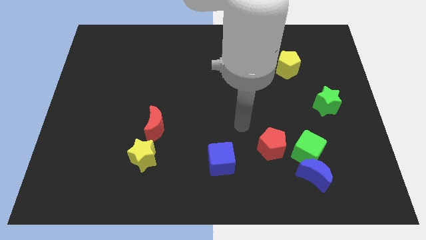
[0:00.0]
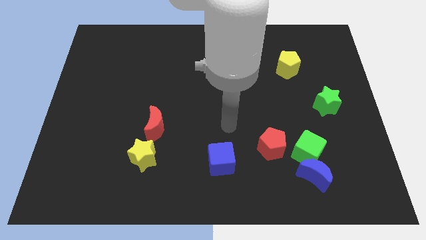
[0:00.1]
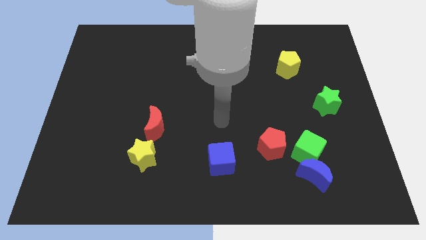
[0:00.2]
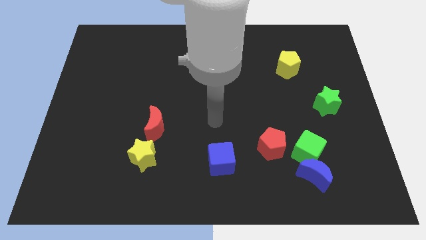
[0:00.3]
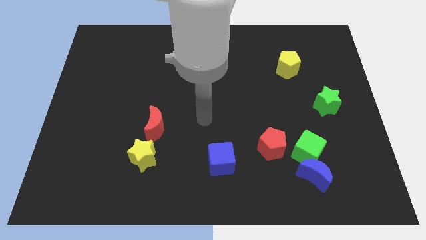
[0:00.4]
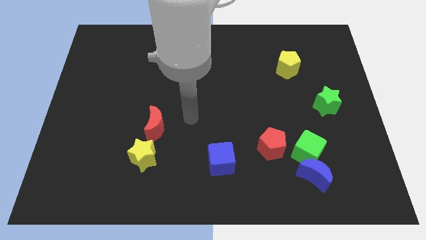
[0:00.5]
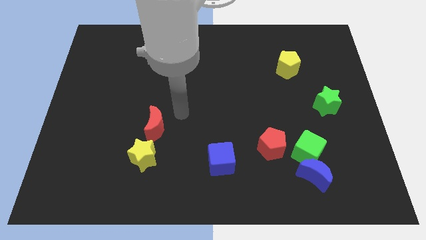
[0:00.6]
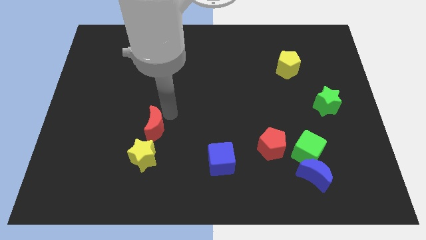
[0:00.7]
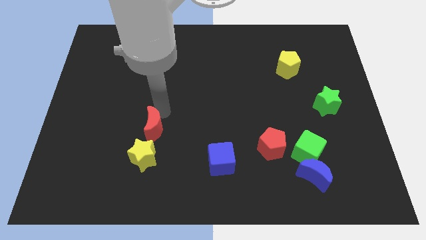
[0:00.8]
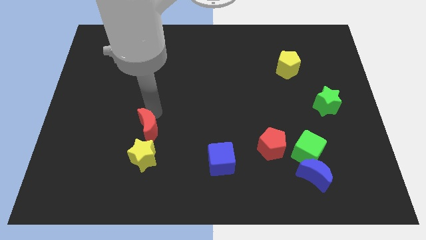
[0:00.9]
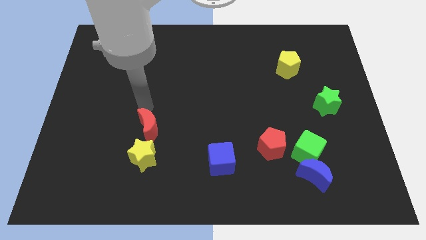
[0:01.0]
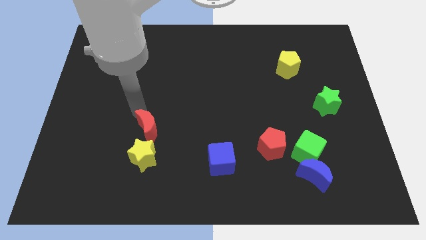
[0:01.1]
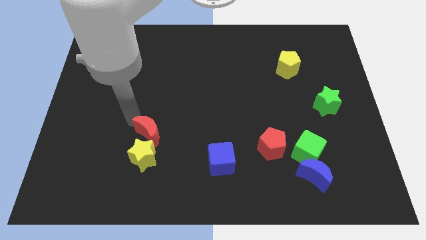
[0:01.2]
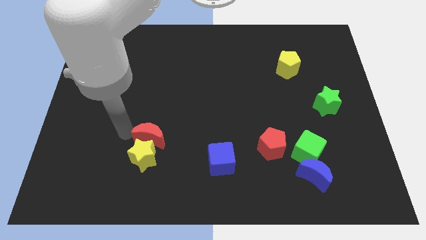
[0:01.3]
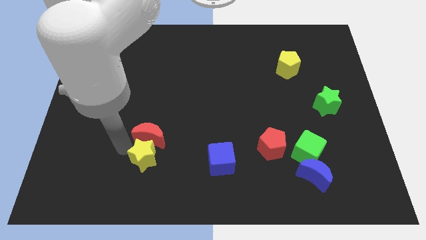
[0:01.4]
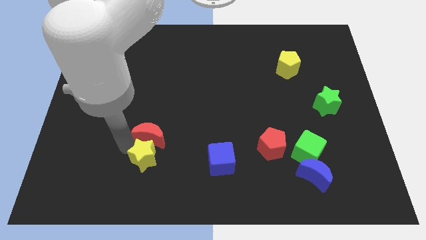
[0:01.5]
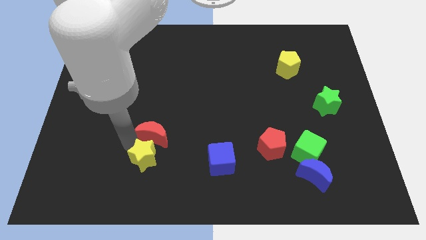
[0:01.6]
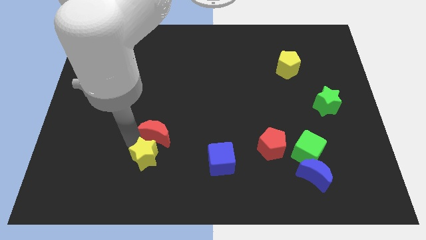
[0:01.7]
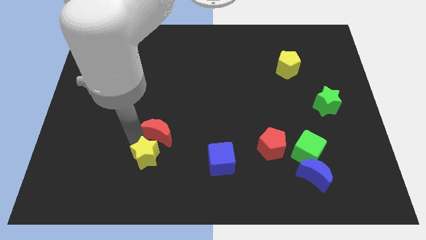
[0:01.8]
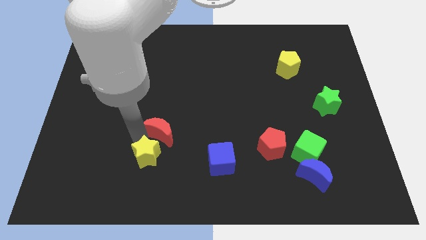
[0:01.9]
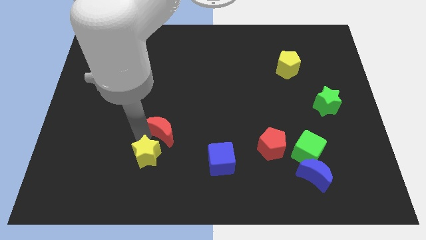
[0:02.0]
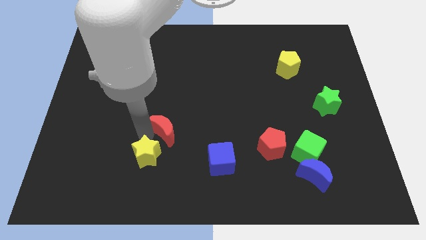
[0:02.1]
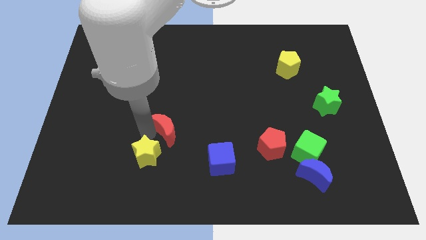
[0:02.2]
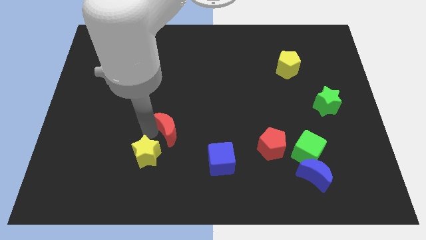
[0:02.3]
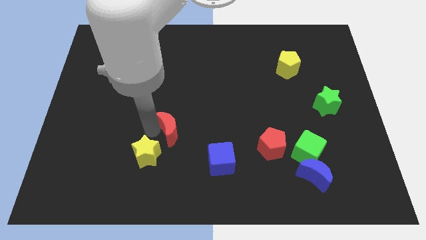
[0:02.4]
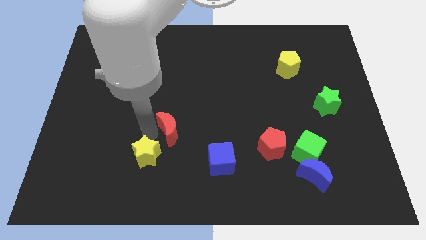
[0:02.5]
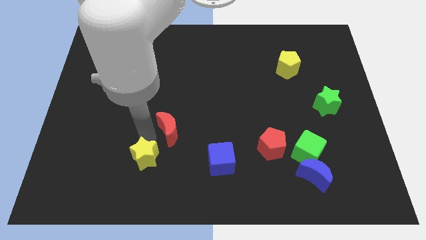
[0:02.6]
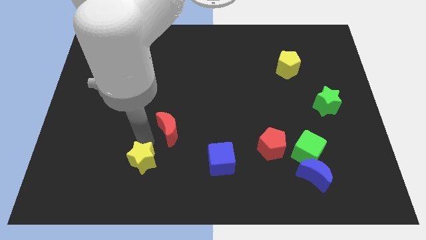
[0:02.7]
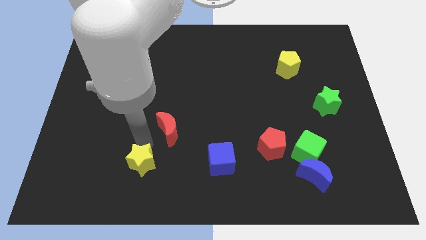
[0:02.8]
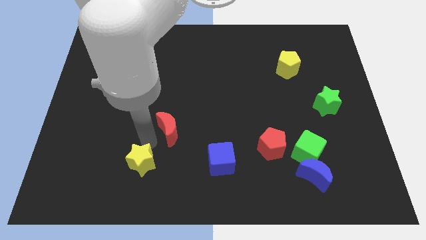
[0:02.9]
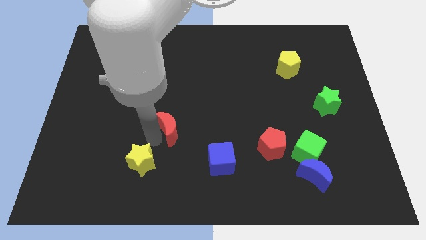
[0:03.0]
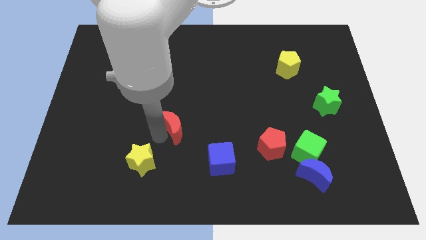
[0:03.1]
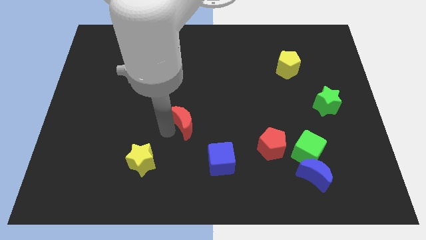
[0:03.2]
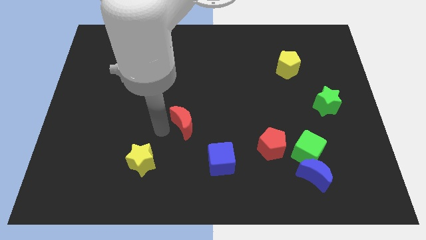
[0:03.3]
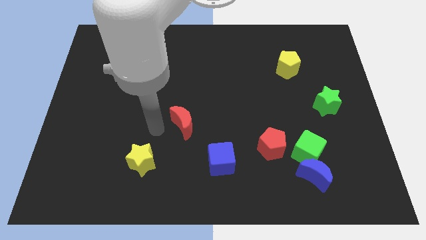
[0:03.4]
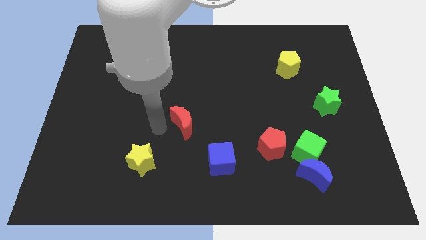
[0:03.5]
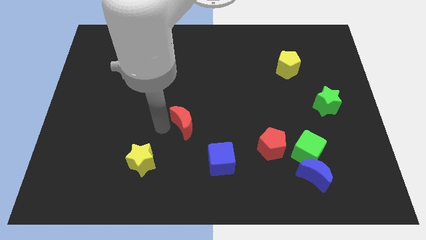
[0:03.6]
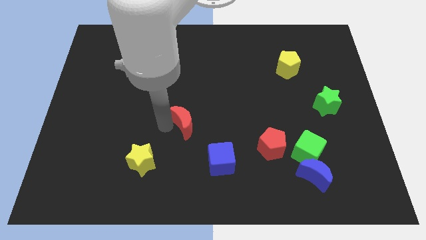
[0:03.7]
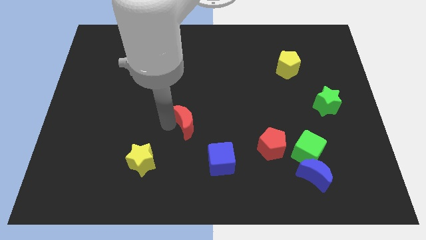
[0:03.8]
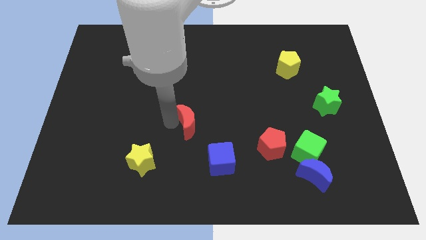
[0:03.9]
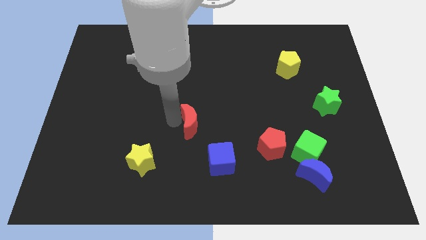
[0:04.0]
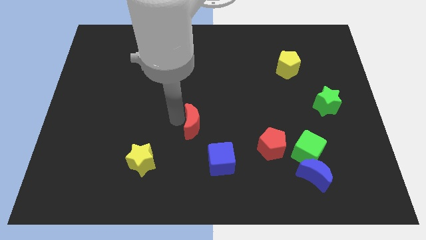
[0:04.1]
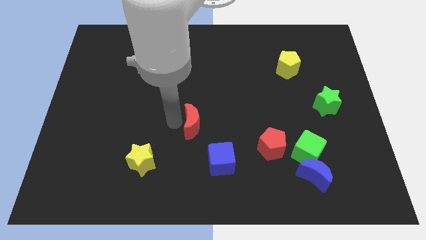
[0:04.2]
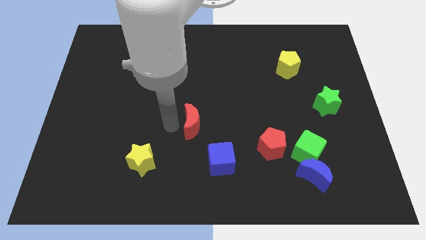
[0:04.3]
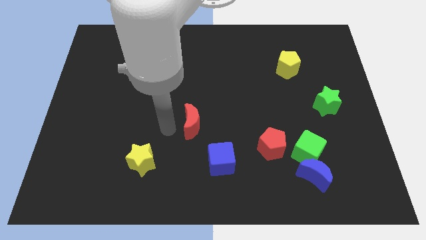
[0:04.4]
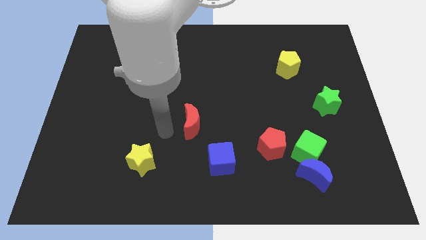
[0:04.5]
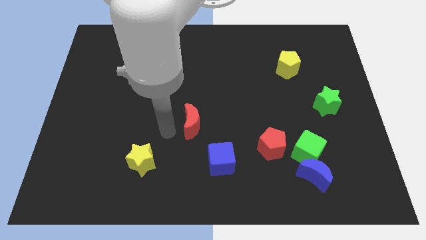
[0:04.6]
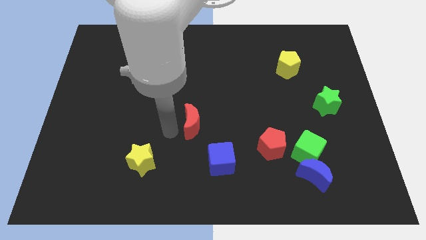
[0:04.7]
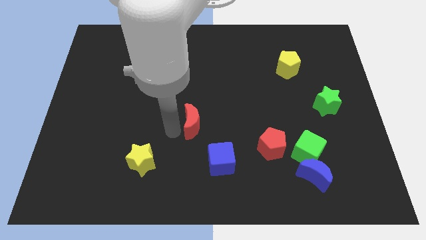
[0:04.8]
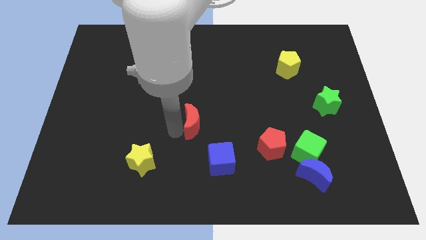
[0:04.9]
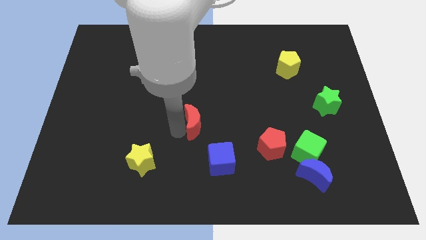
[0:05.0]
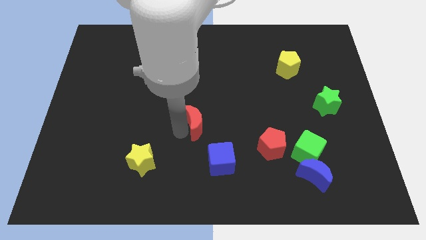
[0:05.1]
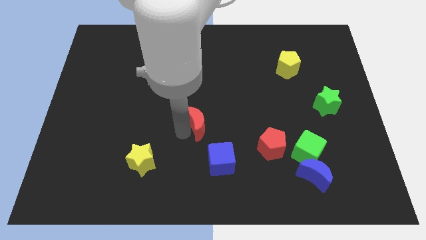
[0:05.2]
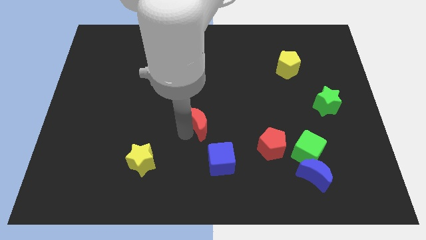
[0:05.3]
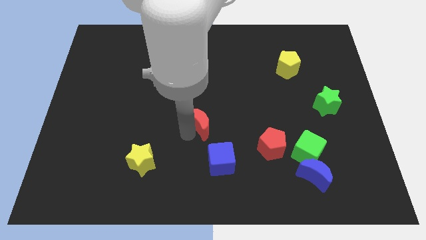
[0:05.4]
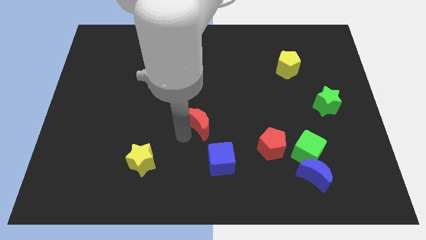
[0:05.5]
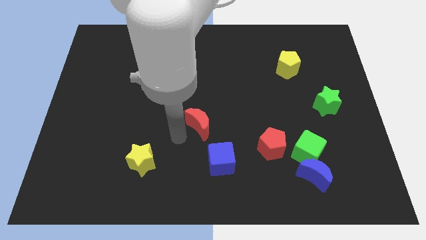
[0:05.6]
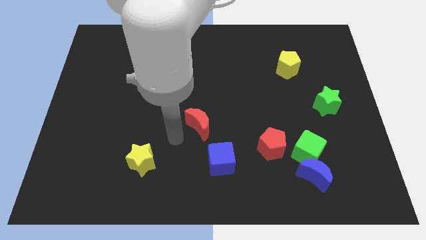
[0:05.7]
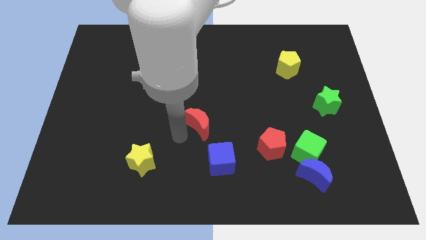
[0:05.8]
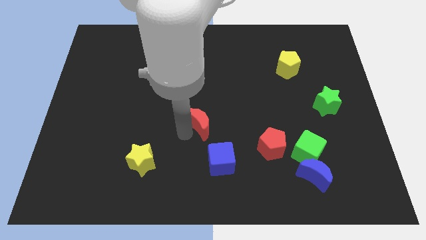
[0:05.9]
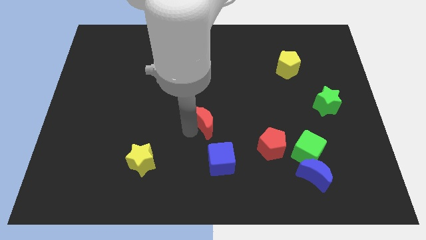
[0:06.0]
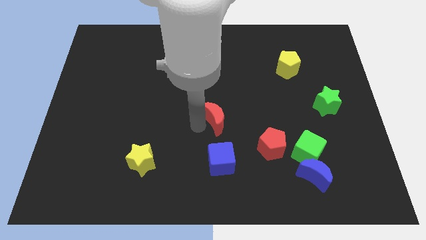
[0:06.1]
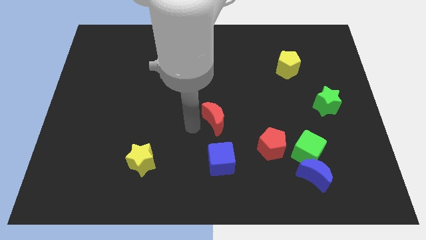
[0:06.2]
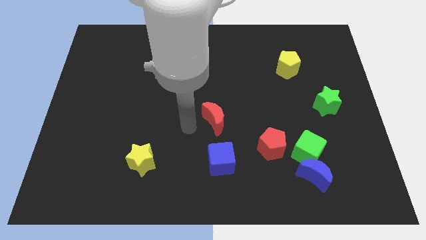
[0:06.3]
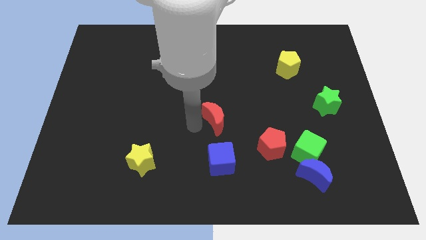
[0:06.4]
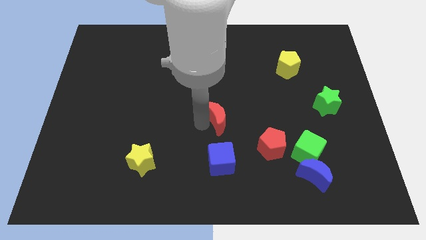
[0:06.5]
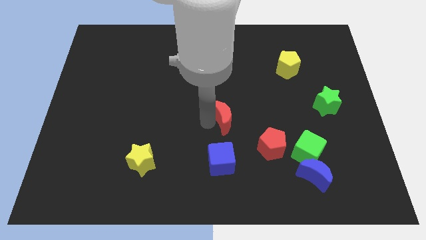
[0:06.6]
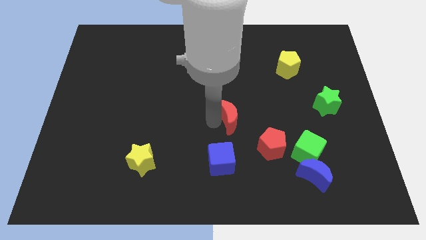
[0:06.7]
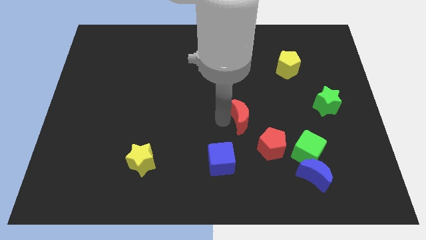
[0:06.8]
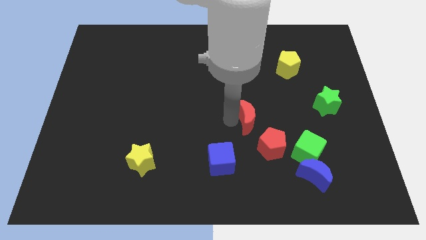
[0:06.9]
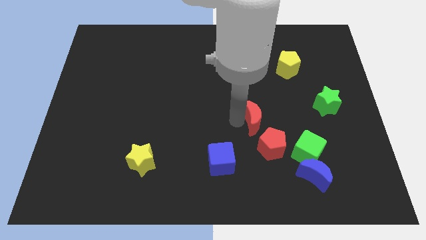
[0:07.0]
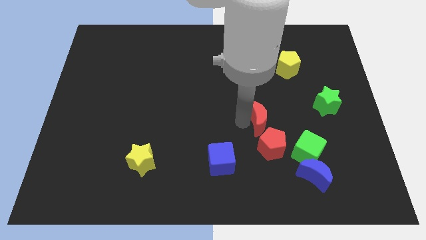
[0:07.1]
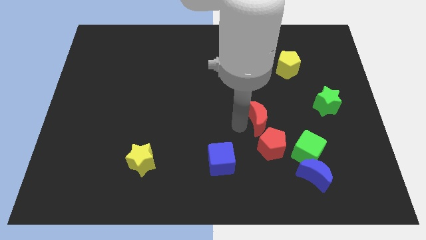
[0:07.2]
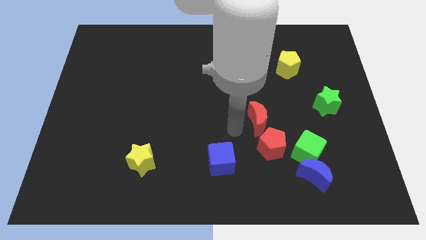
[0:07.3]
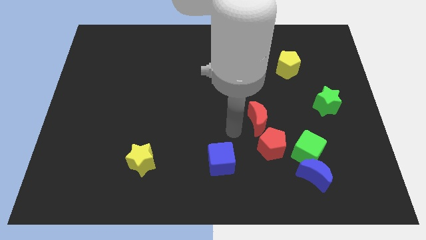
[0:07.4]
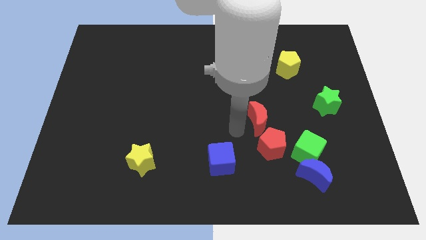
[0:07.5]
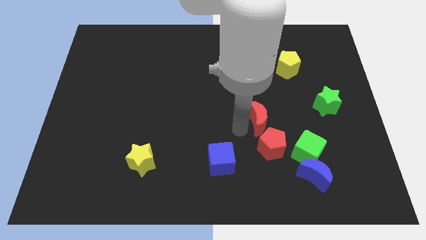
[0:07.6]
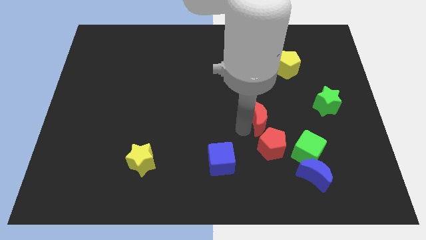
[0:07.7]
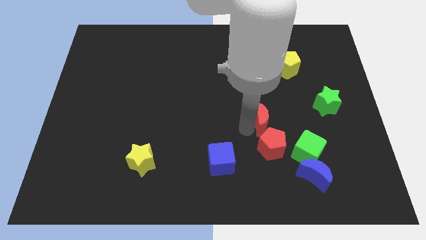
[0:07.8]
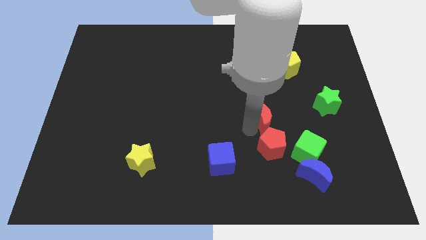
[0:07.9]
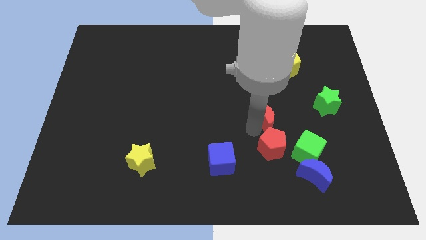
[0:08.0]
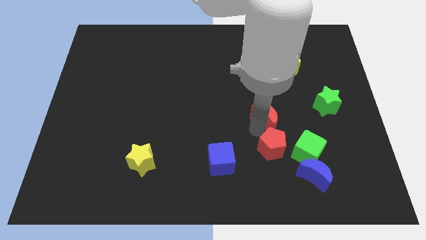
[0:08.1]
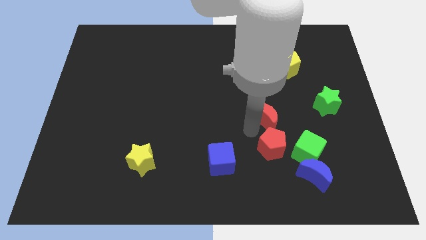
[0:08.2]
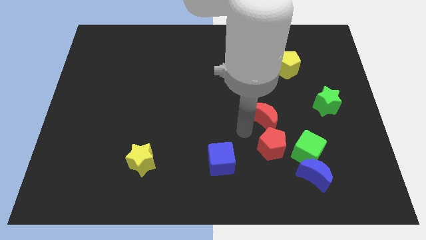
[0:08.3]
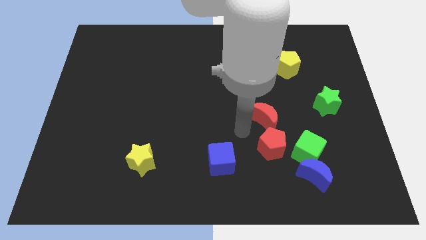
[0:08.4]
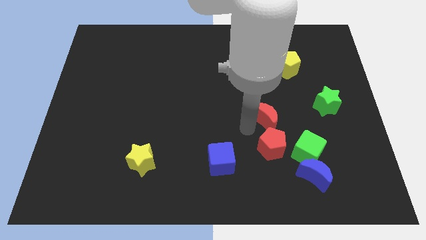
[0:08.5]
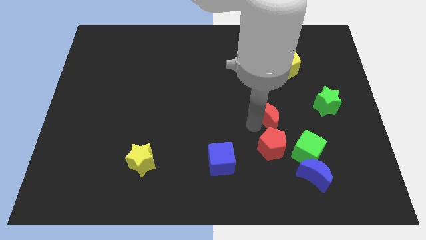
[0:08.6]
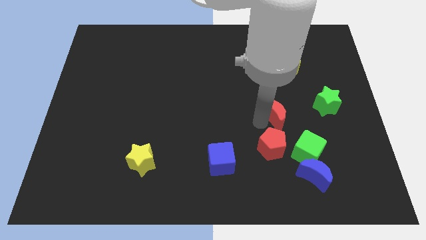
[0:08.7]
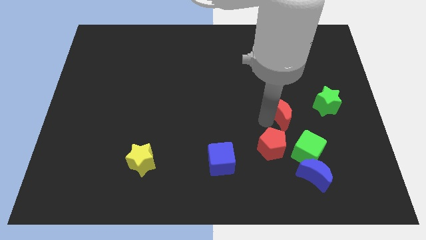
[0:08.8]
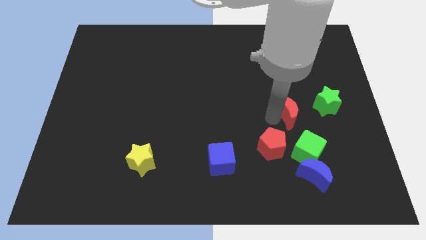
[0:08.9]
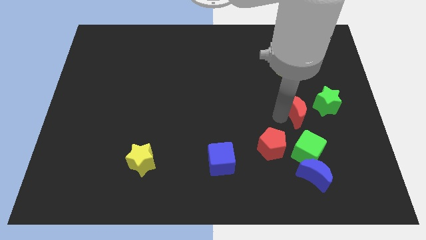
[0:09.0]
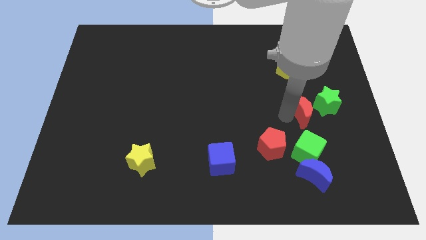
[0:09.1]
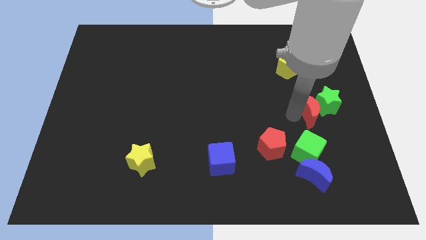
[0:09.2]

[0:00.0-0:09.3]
move the red moon next to the green star
